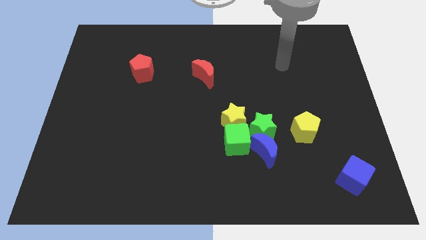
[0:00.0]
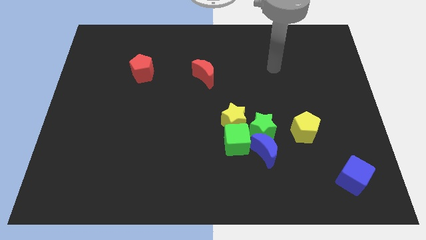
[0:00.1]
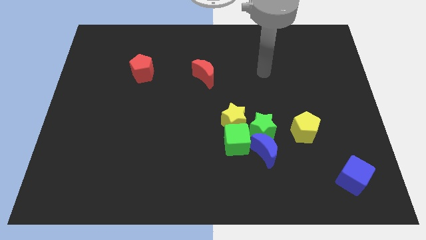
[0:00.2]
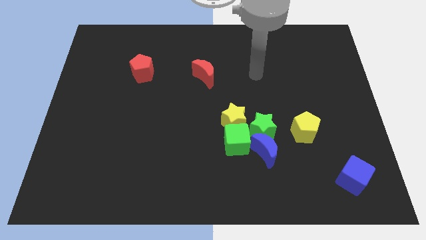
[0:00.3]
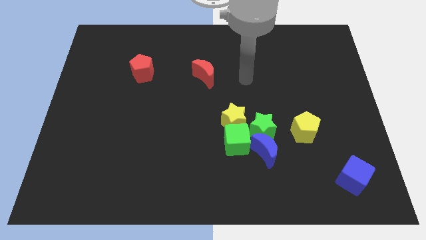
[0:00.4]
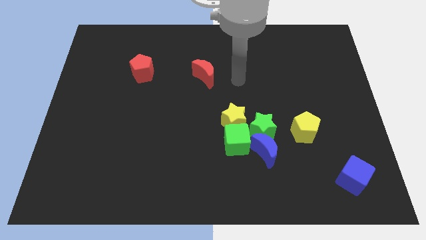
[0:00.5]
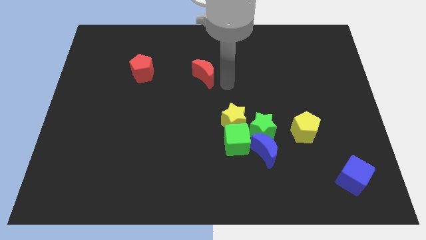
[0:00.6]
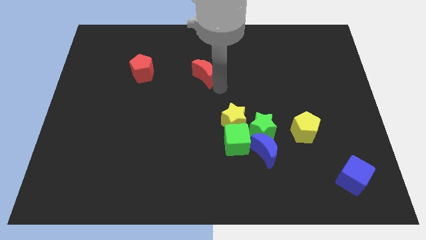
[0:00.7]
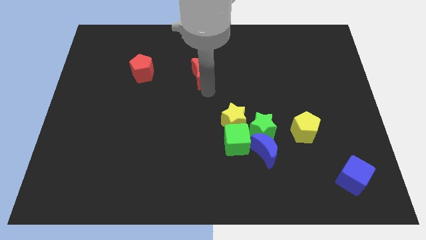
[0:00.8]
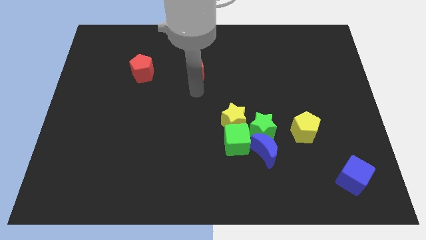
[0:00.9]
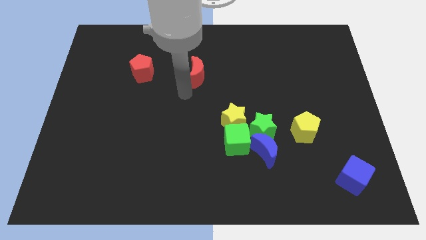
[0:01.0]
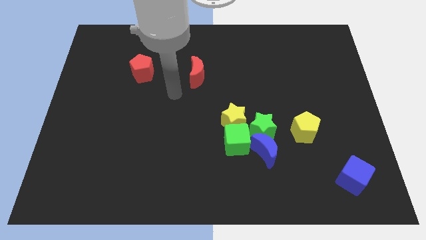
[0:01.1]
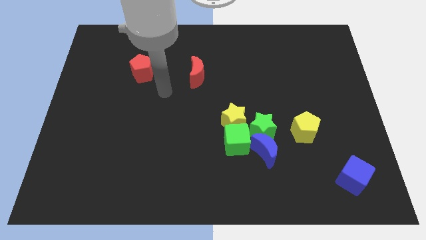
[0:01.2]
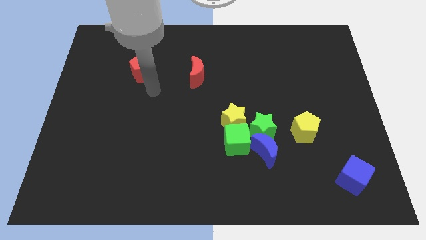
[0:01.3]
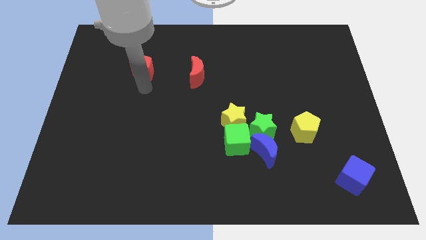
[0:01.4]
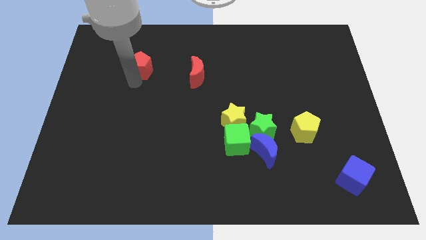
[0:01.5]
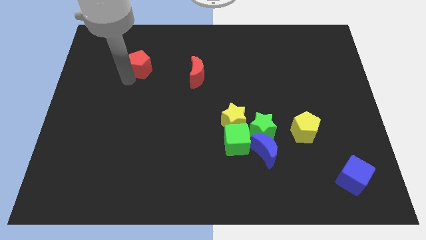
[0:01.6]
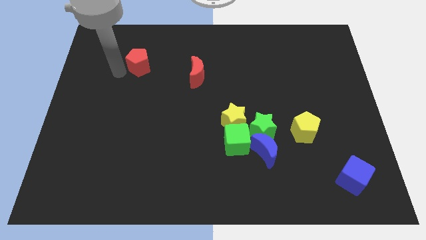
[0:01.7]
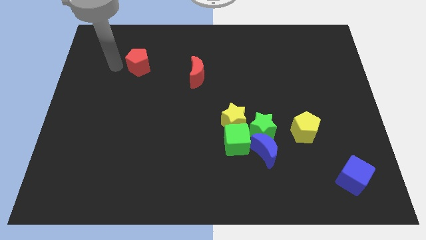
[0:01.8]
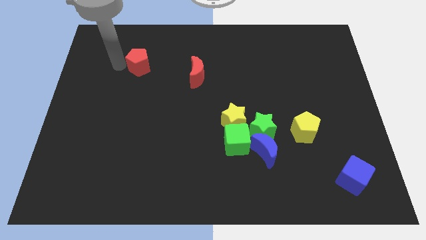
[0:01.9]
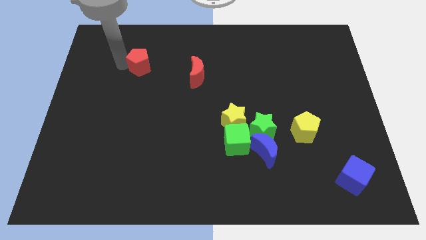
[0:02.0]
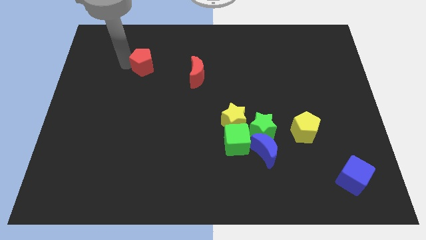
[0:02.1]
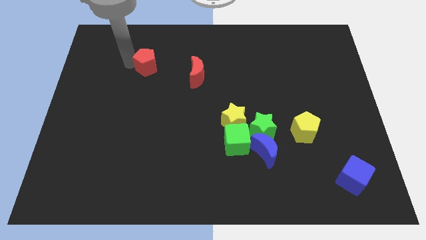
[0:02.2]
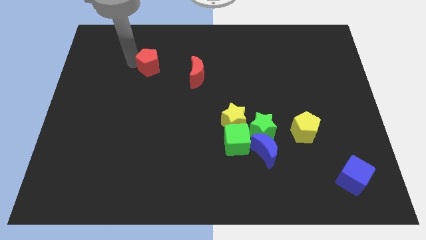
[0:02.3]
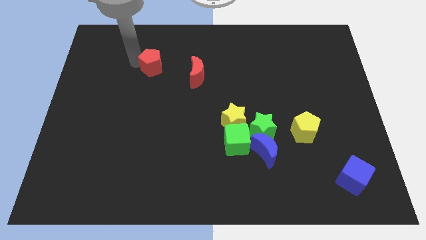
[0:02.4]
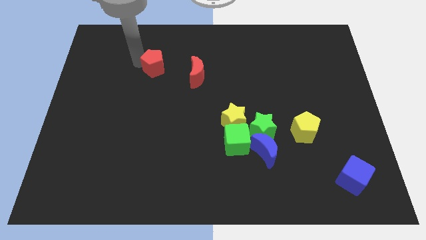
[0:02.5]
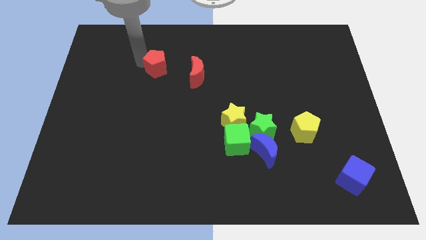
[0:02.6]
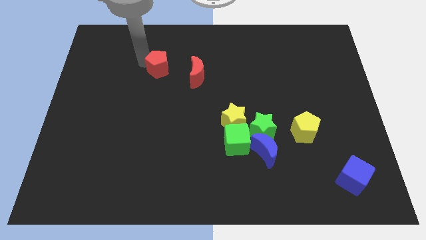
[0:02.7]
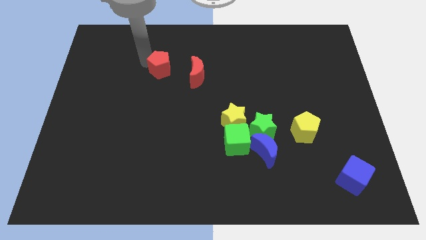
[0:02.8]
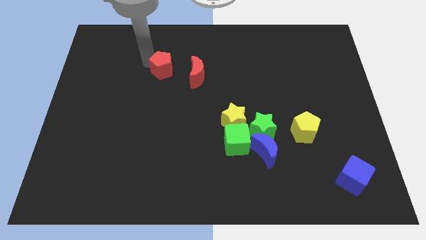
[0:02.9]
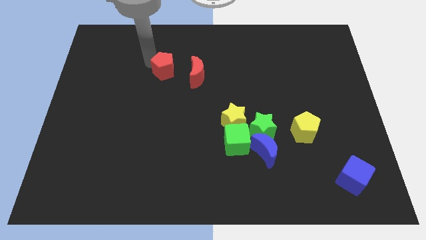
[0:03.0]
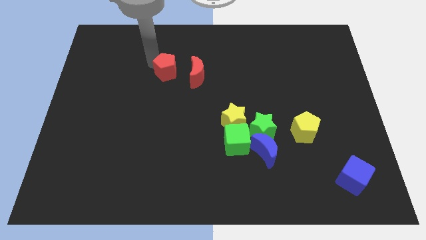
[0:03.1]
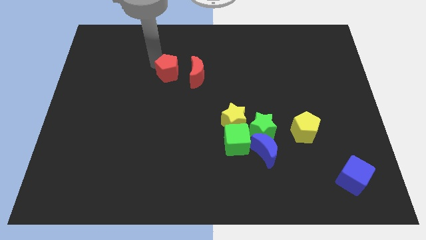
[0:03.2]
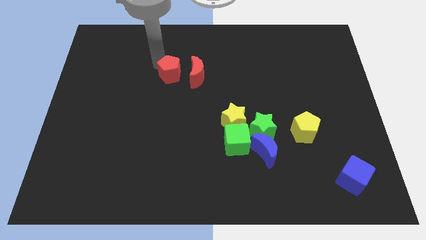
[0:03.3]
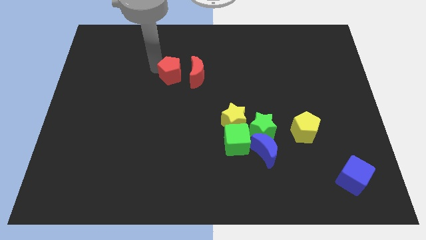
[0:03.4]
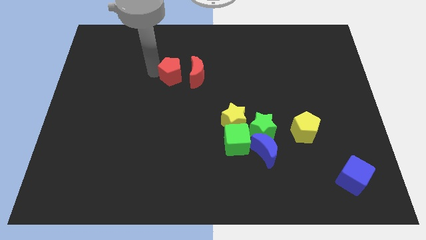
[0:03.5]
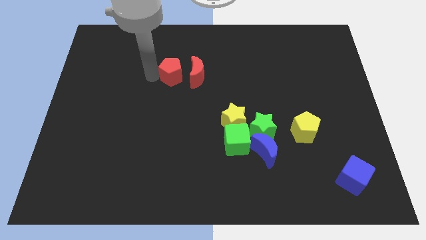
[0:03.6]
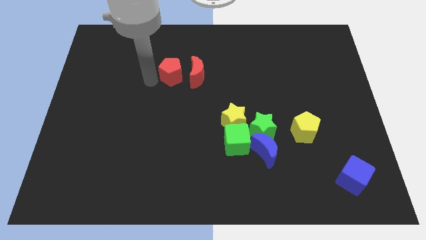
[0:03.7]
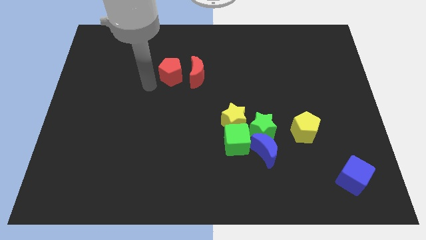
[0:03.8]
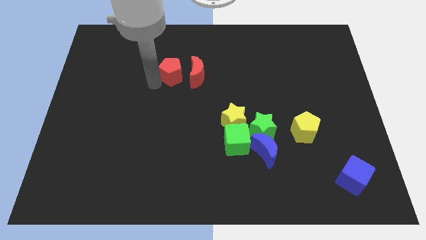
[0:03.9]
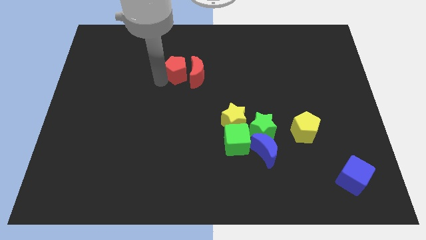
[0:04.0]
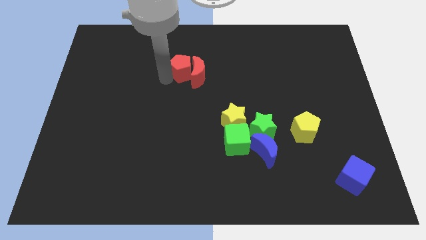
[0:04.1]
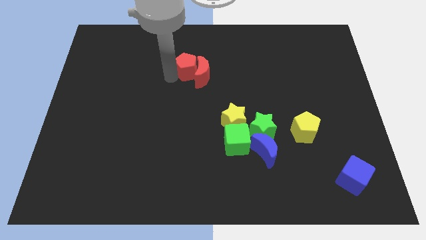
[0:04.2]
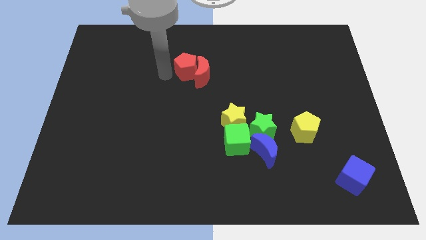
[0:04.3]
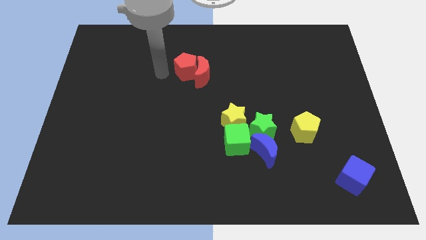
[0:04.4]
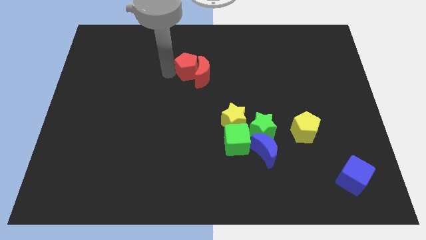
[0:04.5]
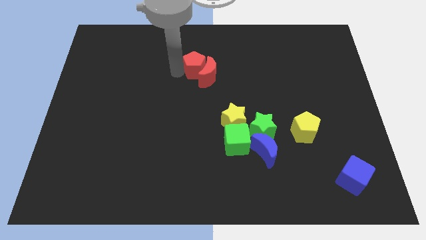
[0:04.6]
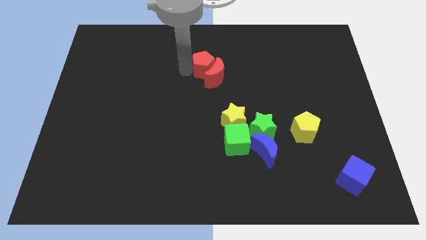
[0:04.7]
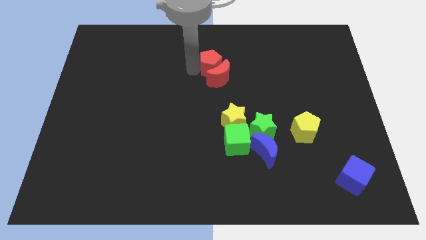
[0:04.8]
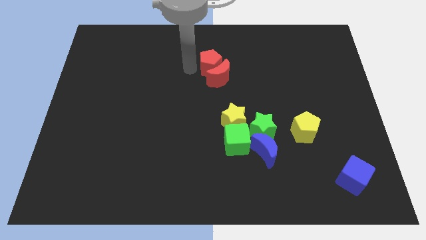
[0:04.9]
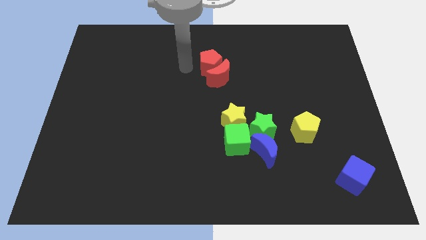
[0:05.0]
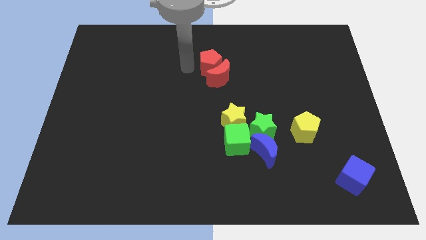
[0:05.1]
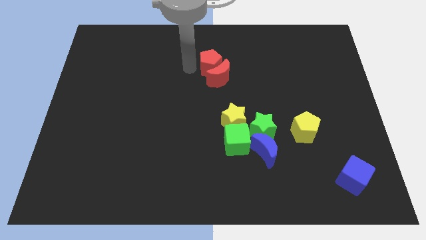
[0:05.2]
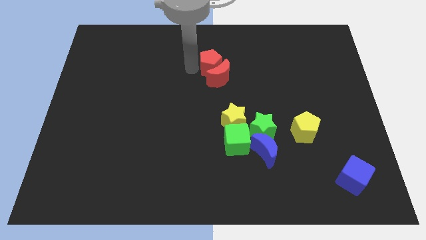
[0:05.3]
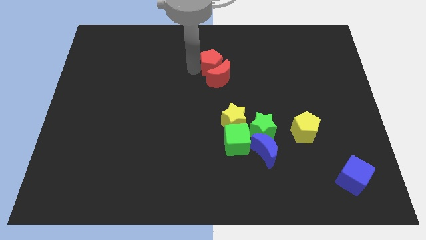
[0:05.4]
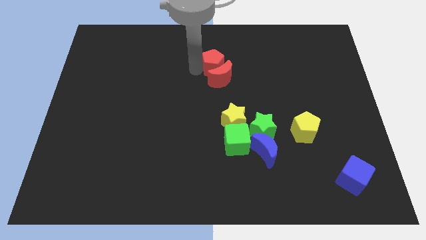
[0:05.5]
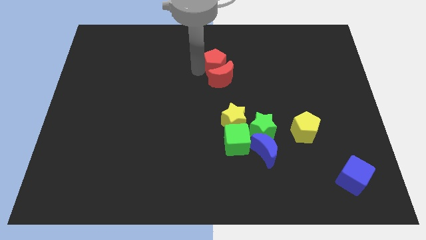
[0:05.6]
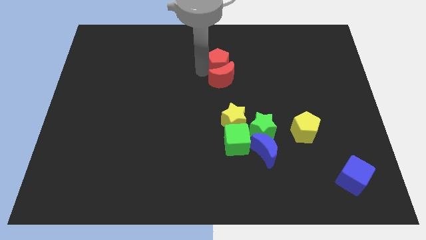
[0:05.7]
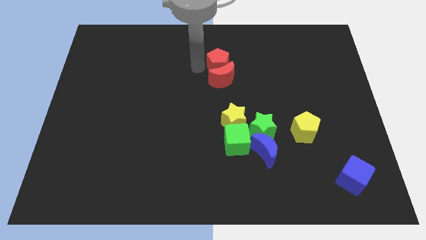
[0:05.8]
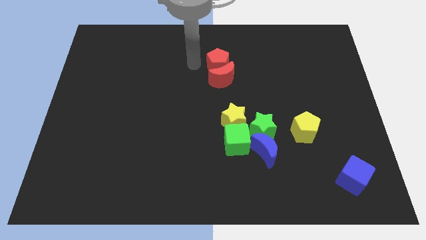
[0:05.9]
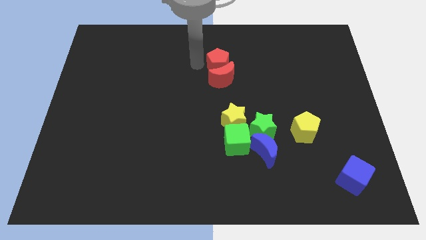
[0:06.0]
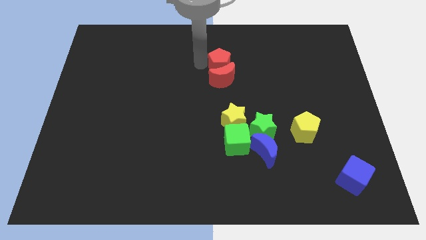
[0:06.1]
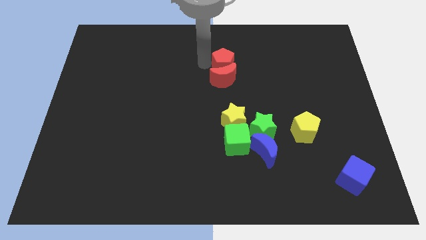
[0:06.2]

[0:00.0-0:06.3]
slide the red pentagon right

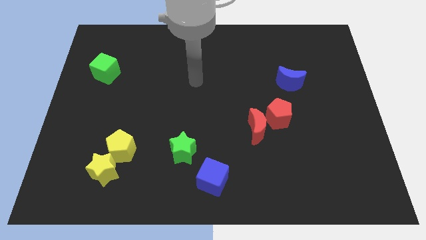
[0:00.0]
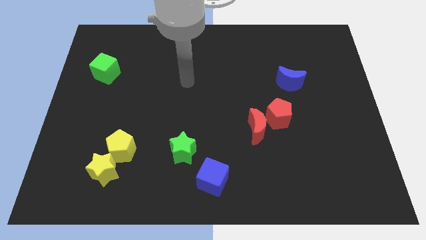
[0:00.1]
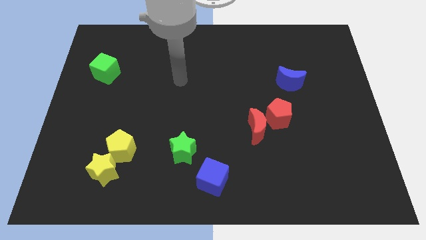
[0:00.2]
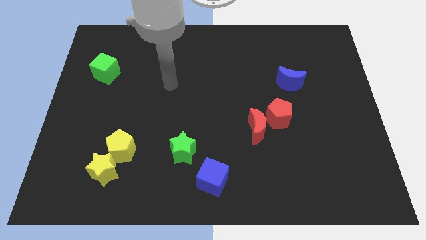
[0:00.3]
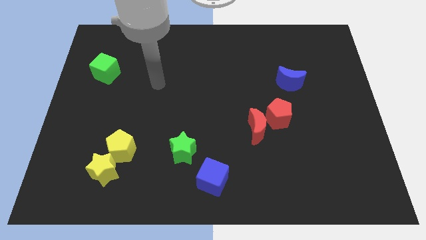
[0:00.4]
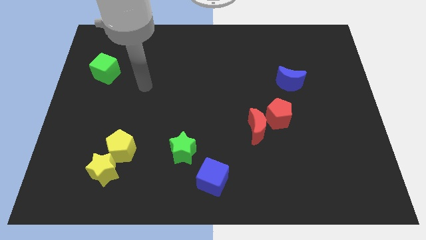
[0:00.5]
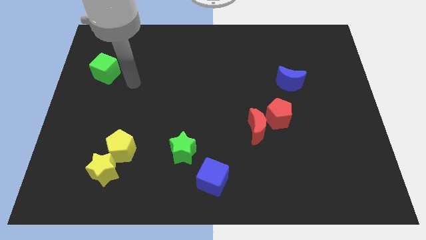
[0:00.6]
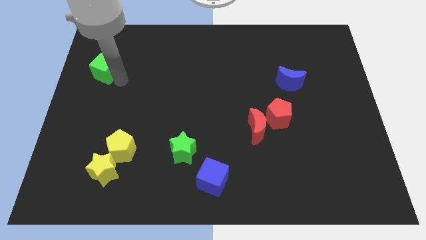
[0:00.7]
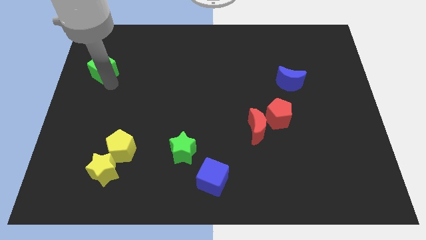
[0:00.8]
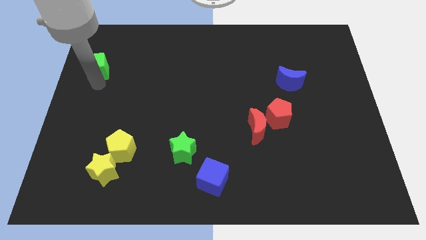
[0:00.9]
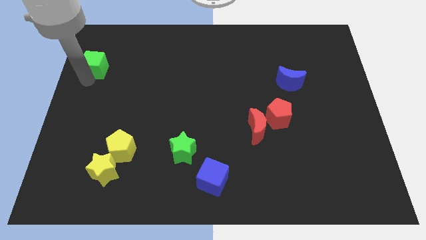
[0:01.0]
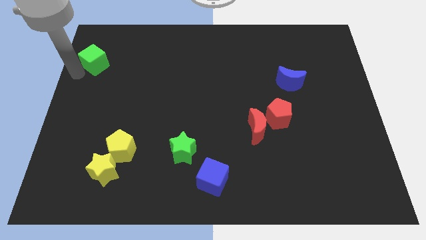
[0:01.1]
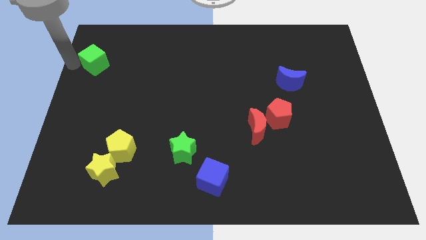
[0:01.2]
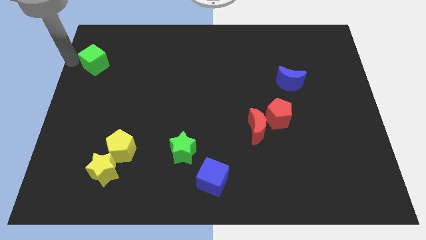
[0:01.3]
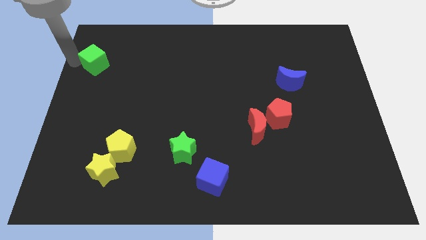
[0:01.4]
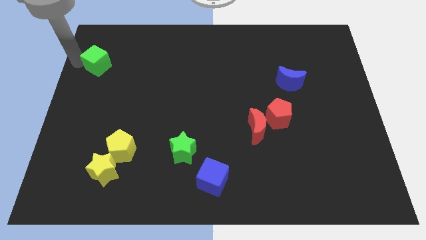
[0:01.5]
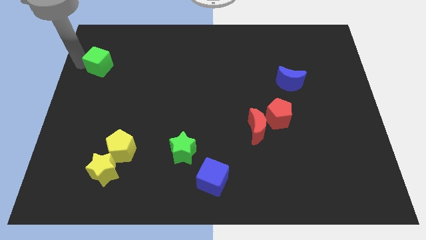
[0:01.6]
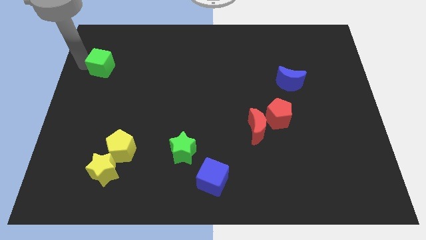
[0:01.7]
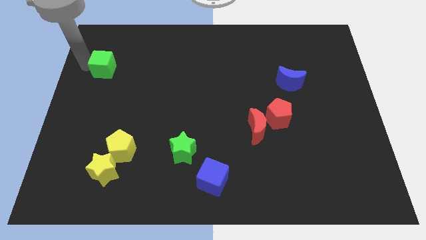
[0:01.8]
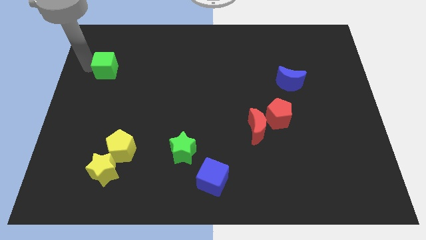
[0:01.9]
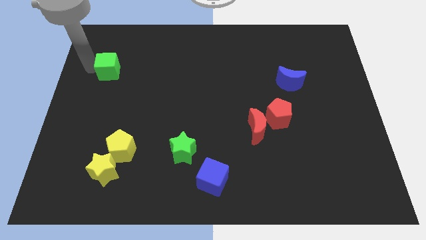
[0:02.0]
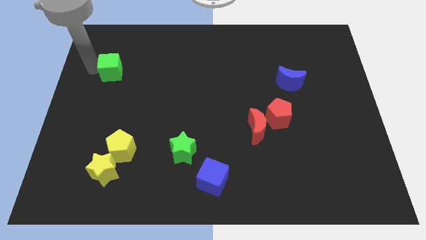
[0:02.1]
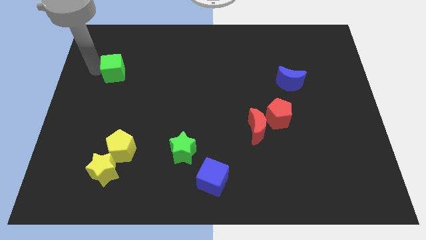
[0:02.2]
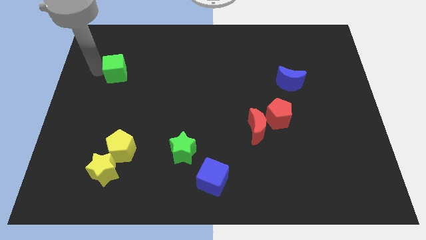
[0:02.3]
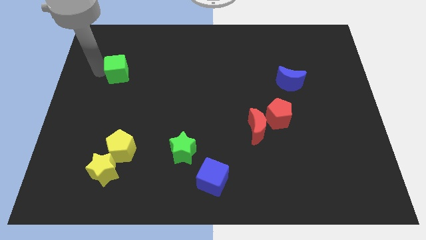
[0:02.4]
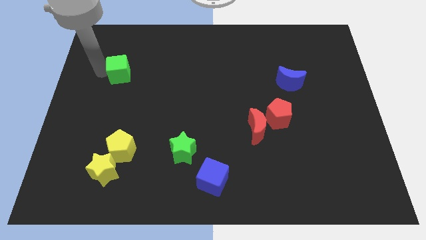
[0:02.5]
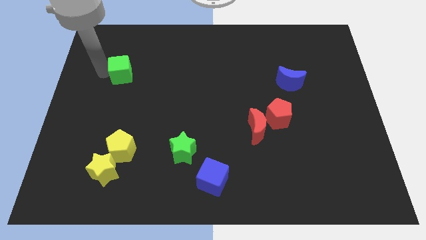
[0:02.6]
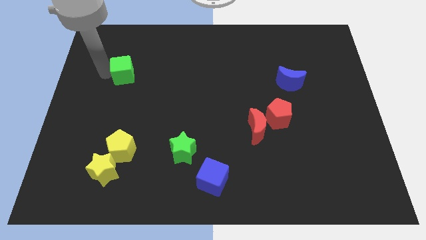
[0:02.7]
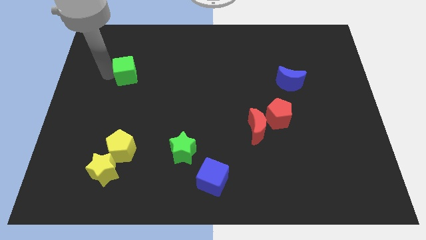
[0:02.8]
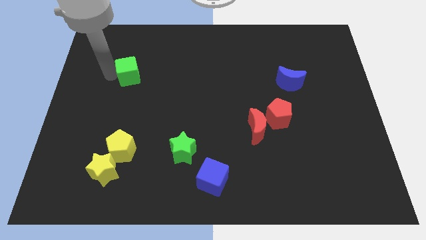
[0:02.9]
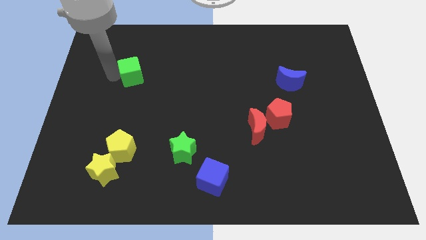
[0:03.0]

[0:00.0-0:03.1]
push the green cube slightly to the right
